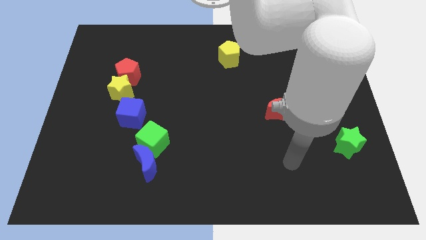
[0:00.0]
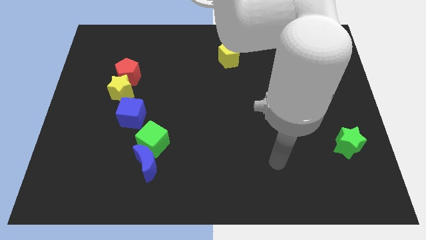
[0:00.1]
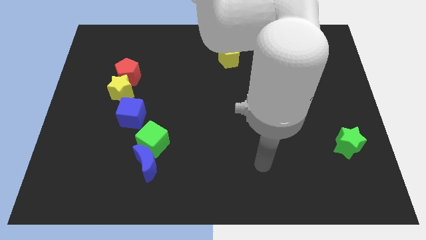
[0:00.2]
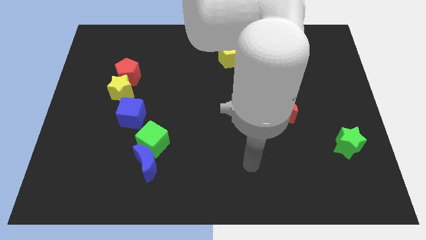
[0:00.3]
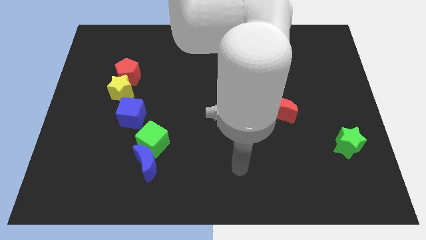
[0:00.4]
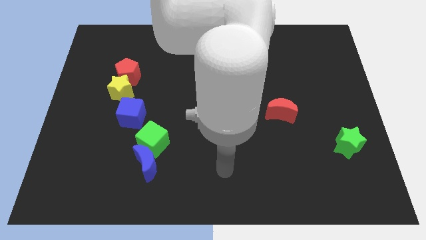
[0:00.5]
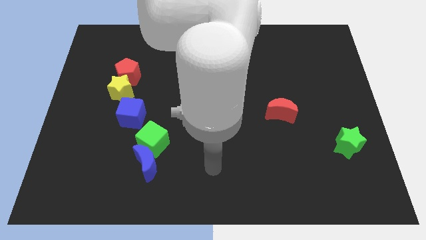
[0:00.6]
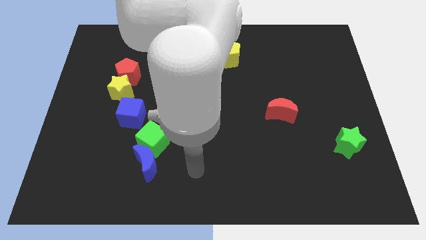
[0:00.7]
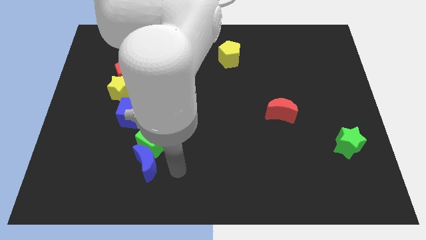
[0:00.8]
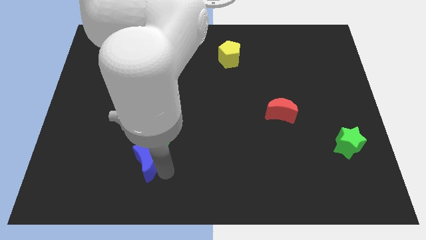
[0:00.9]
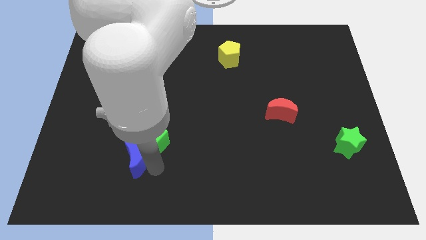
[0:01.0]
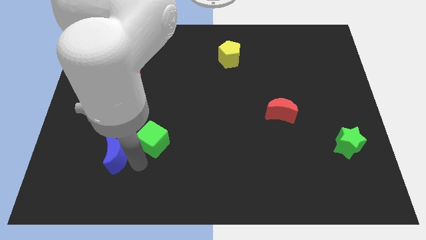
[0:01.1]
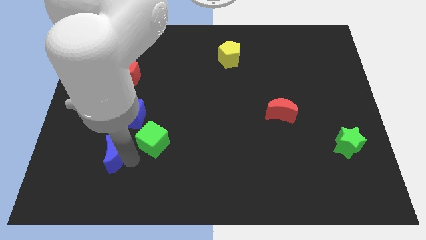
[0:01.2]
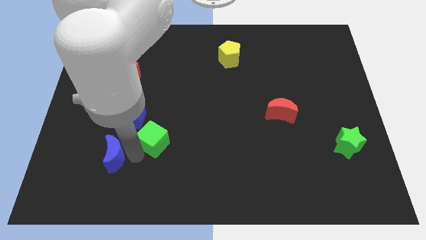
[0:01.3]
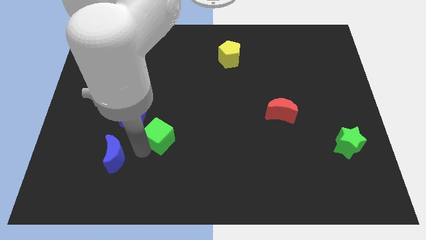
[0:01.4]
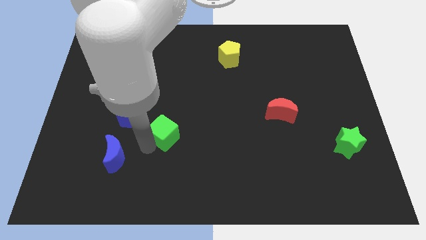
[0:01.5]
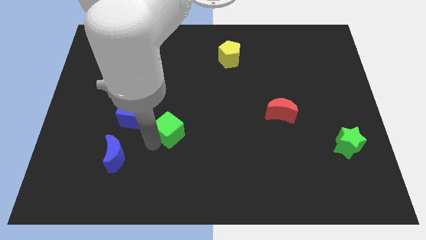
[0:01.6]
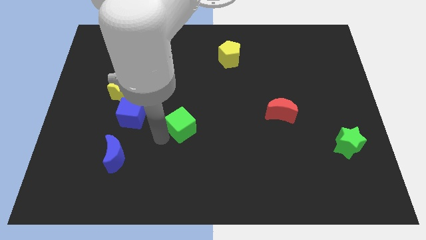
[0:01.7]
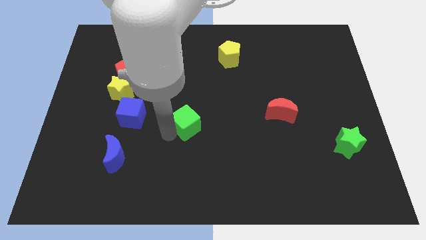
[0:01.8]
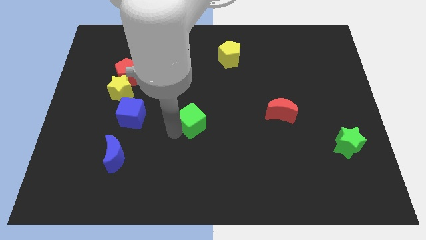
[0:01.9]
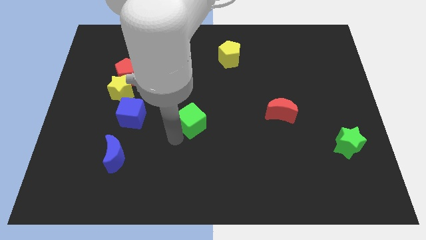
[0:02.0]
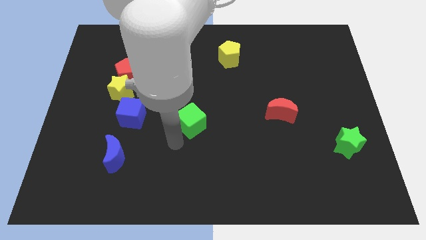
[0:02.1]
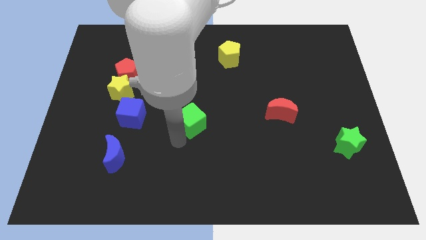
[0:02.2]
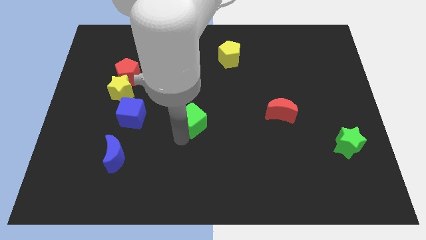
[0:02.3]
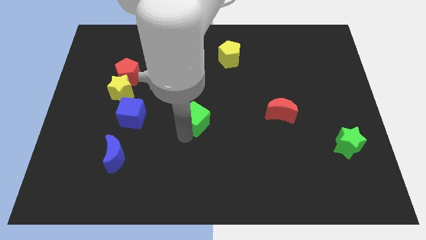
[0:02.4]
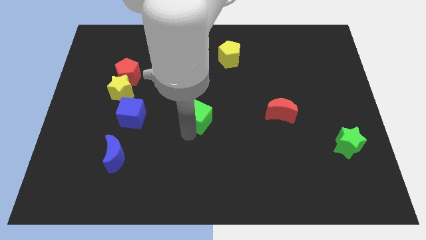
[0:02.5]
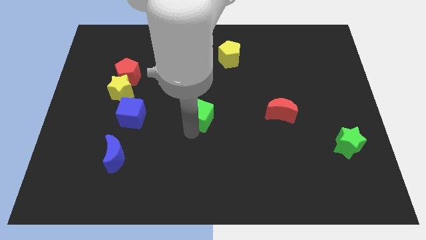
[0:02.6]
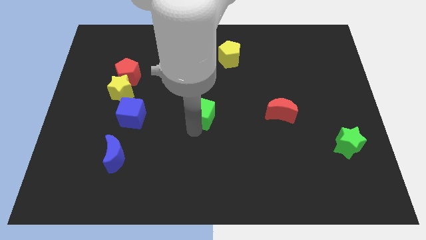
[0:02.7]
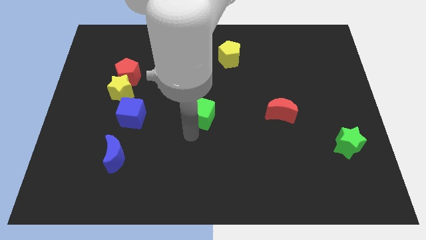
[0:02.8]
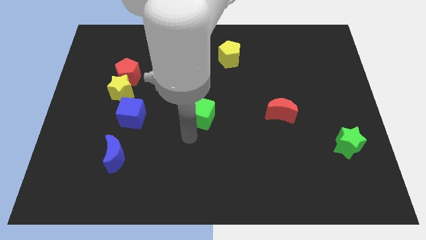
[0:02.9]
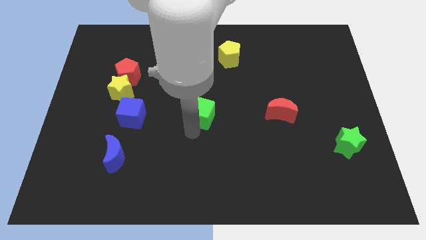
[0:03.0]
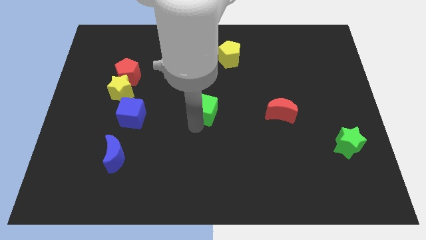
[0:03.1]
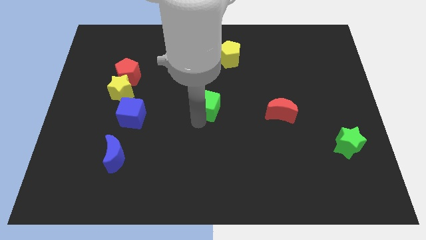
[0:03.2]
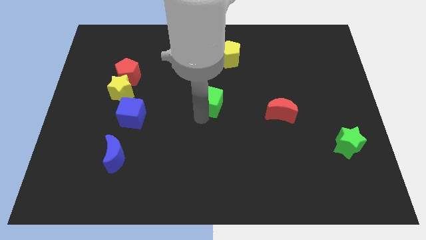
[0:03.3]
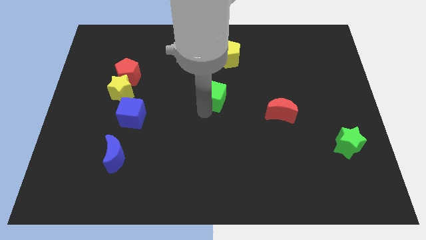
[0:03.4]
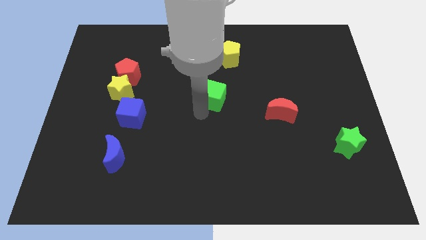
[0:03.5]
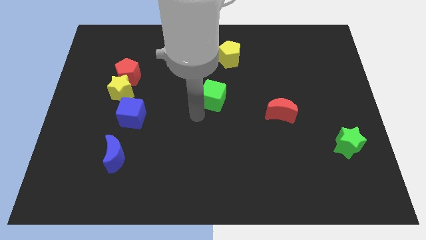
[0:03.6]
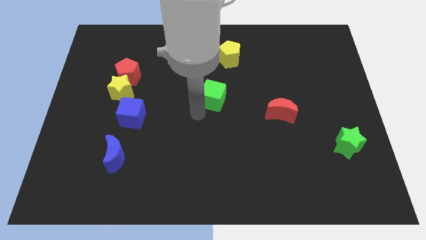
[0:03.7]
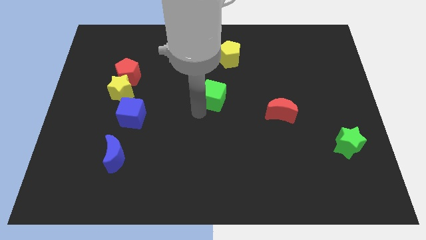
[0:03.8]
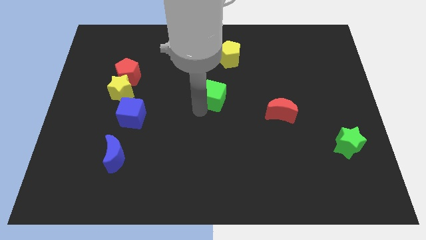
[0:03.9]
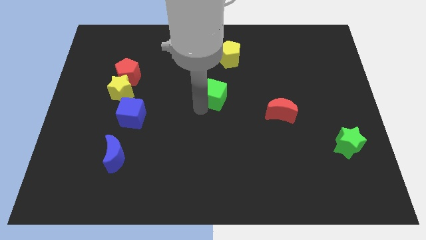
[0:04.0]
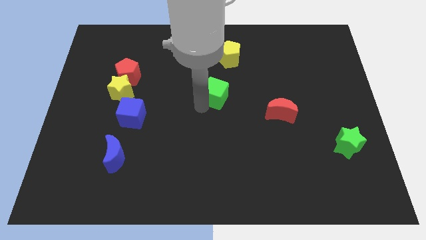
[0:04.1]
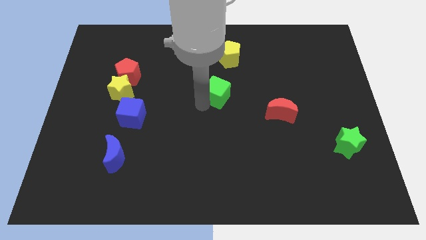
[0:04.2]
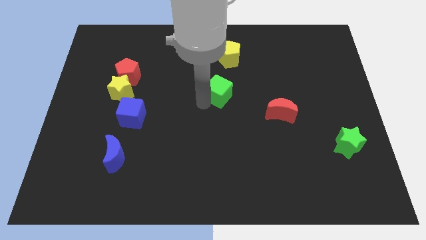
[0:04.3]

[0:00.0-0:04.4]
push the green cube upwards and to the right

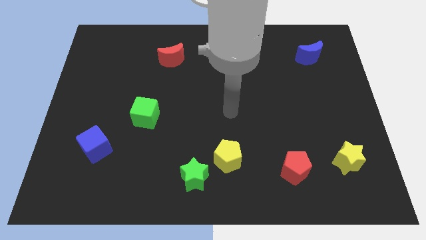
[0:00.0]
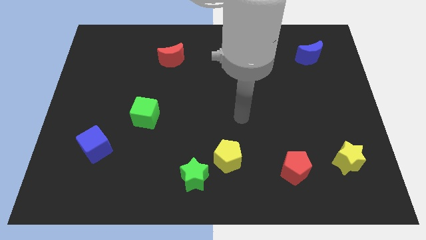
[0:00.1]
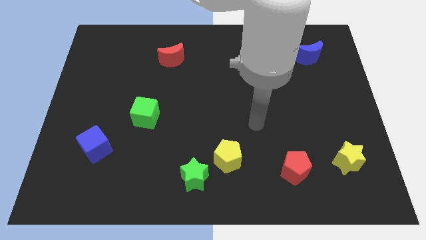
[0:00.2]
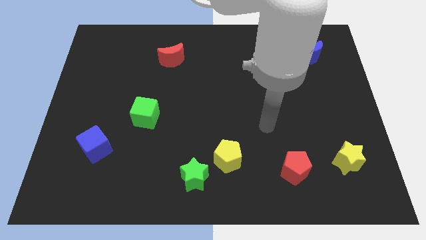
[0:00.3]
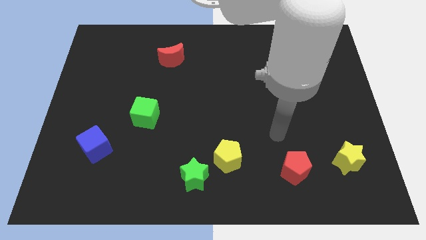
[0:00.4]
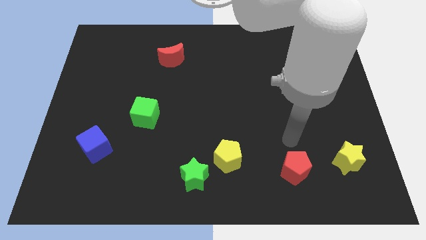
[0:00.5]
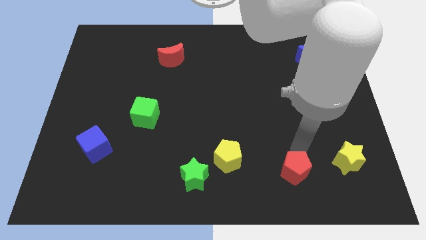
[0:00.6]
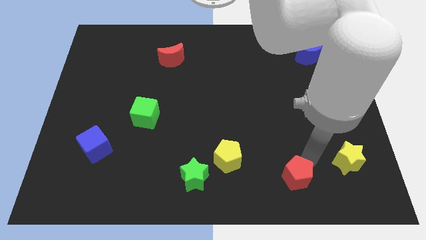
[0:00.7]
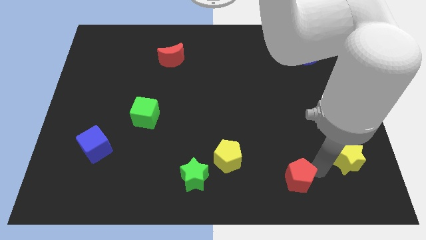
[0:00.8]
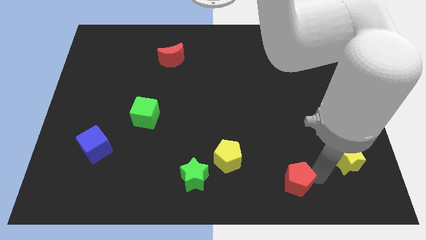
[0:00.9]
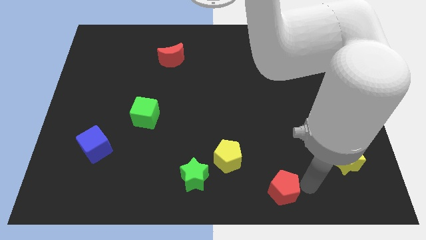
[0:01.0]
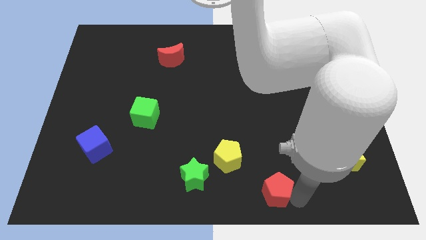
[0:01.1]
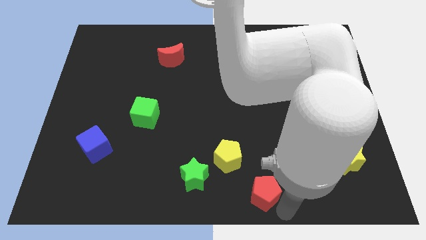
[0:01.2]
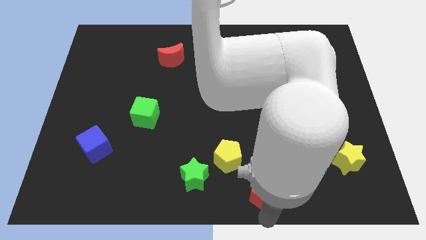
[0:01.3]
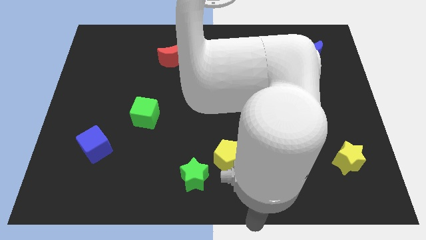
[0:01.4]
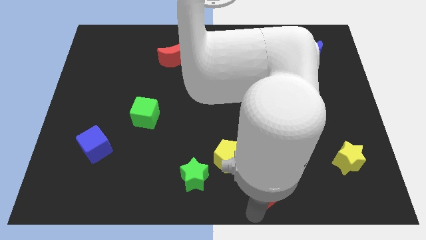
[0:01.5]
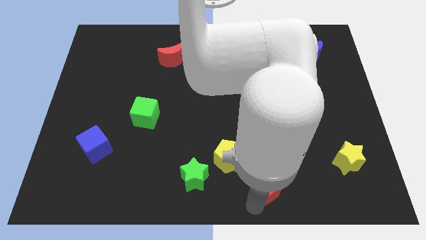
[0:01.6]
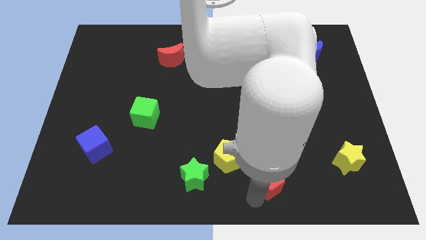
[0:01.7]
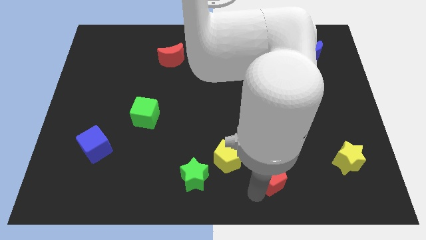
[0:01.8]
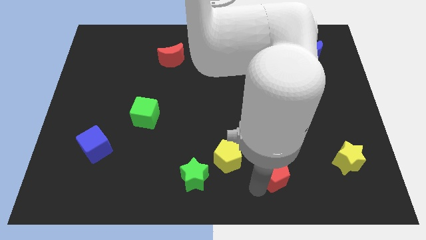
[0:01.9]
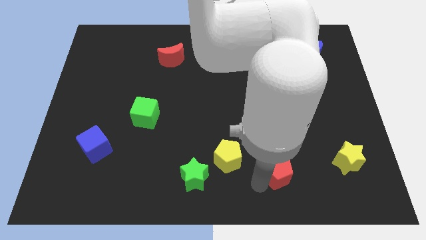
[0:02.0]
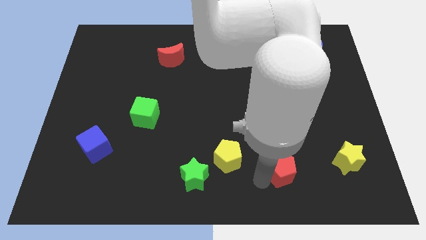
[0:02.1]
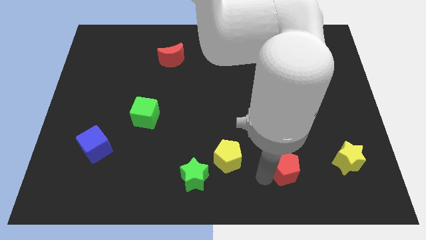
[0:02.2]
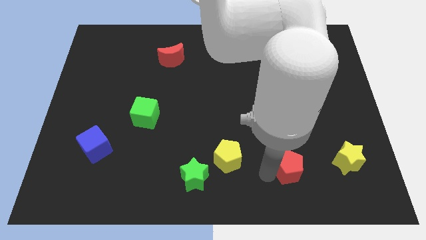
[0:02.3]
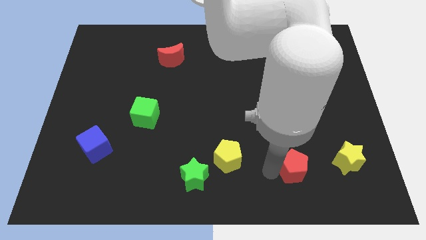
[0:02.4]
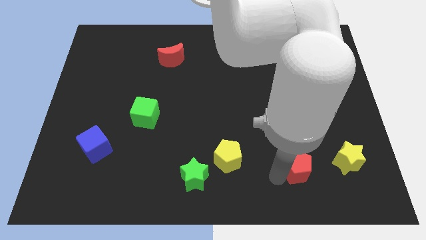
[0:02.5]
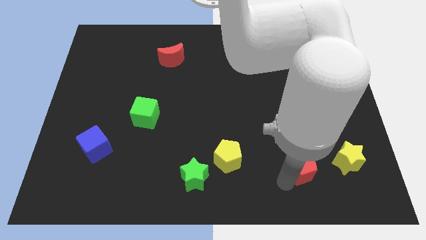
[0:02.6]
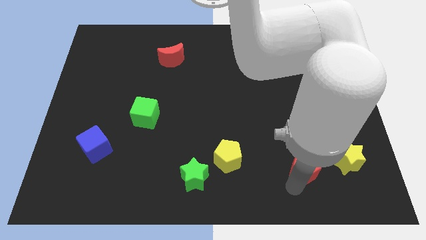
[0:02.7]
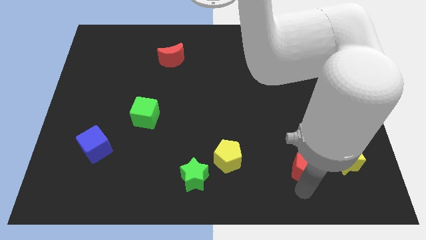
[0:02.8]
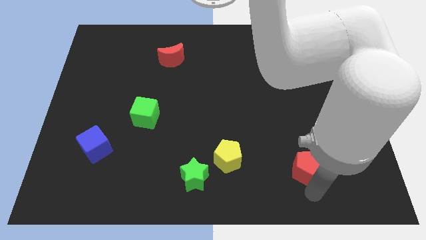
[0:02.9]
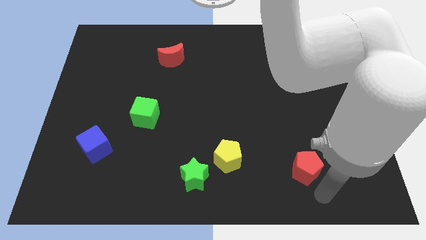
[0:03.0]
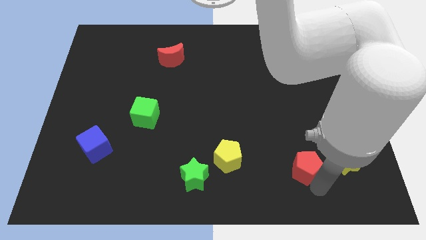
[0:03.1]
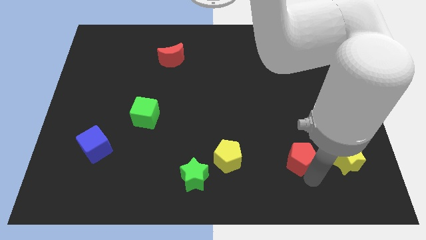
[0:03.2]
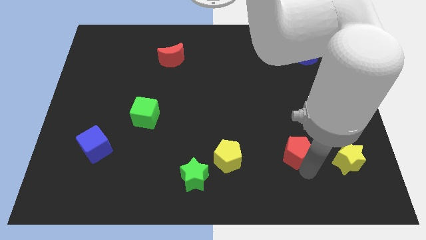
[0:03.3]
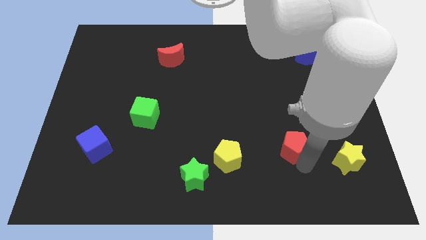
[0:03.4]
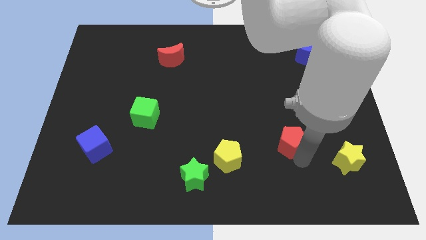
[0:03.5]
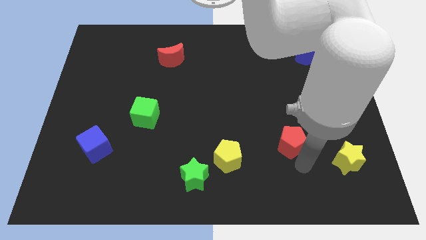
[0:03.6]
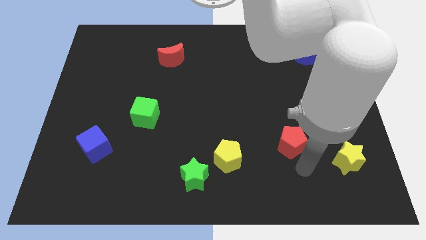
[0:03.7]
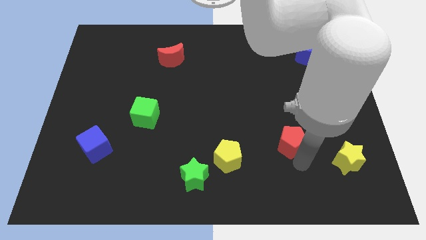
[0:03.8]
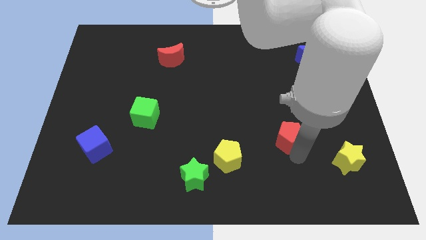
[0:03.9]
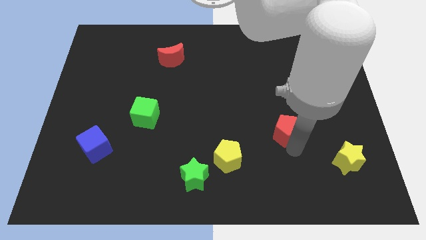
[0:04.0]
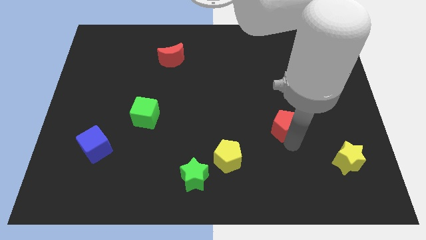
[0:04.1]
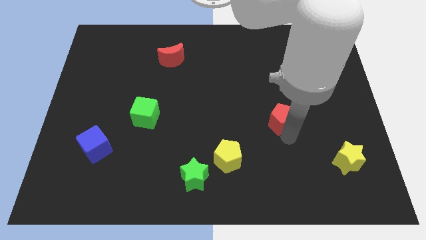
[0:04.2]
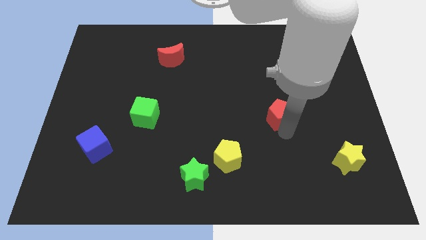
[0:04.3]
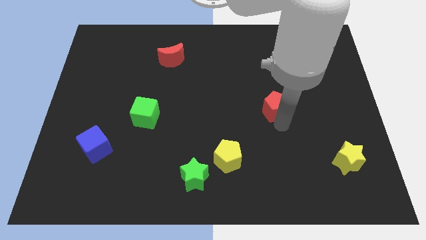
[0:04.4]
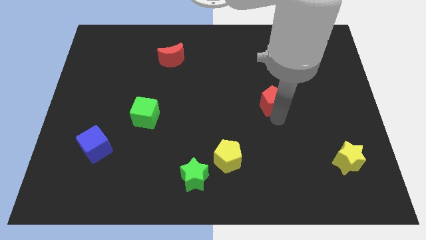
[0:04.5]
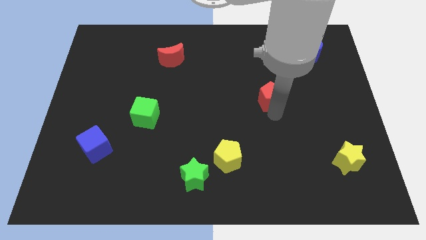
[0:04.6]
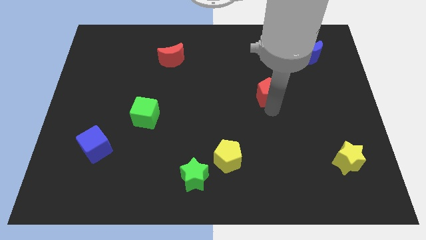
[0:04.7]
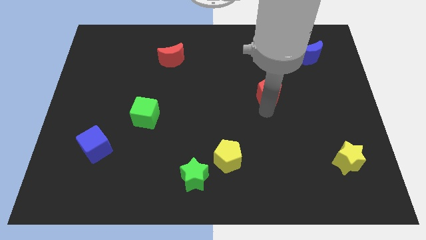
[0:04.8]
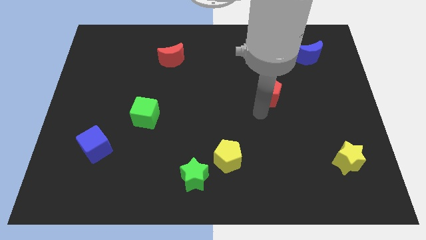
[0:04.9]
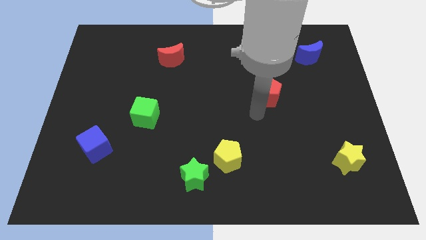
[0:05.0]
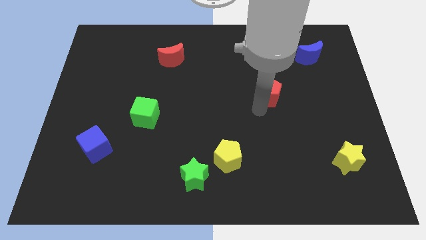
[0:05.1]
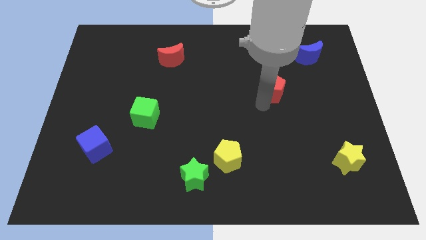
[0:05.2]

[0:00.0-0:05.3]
move the red pentagon up
